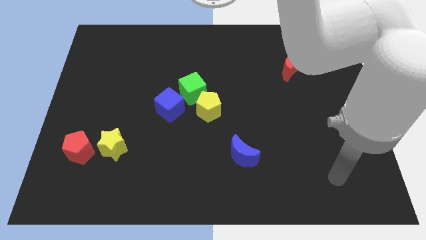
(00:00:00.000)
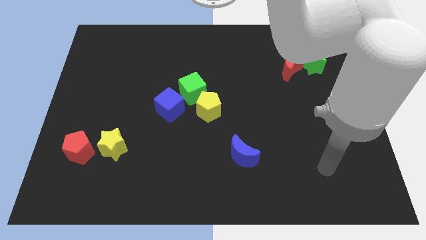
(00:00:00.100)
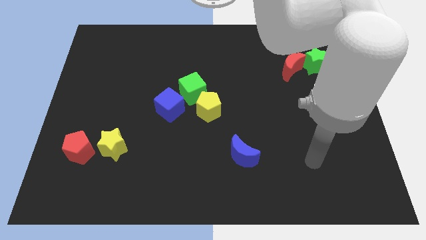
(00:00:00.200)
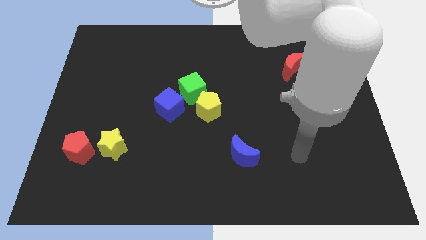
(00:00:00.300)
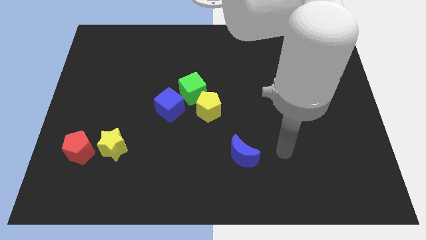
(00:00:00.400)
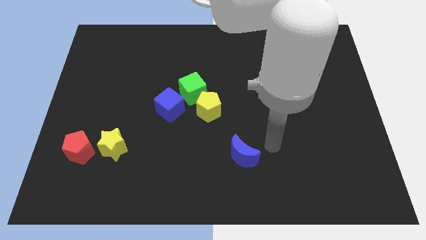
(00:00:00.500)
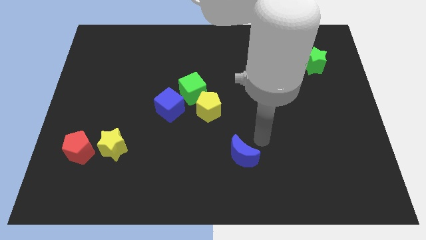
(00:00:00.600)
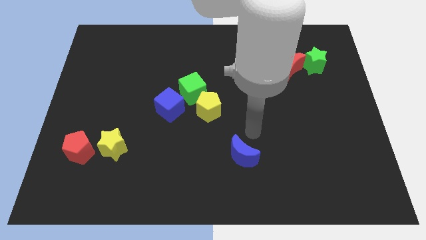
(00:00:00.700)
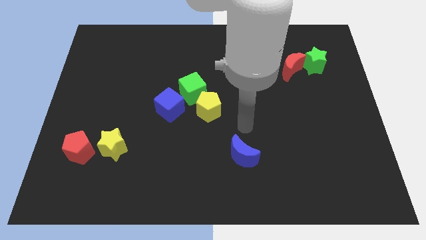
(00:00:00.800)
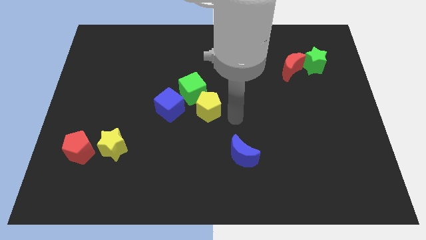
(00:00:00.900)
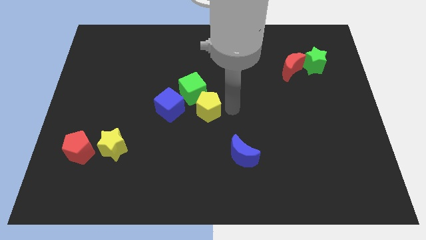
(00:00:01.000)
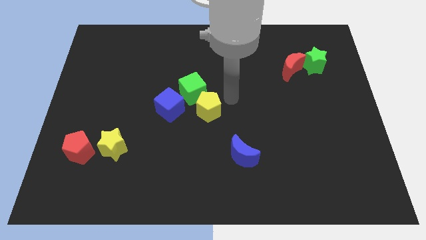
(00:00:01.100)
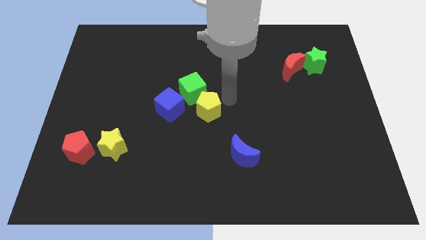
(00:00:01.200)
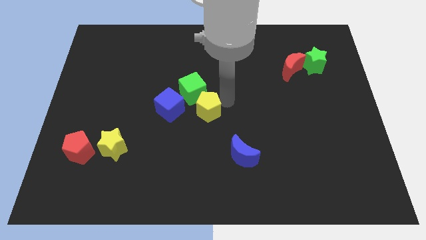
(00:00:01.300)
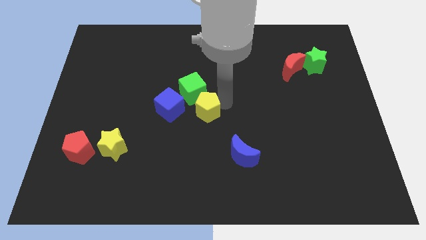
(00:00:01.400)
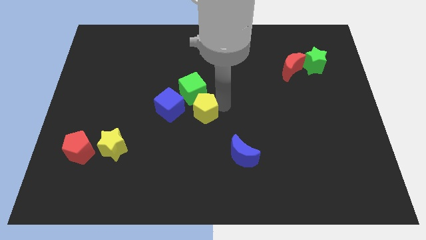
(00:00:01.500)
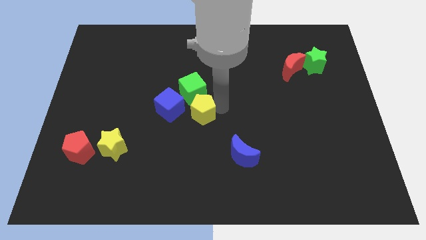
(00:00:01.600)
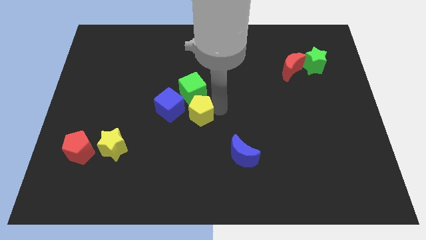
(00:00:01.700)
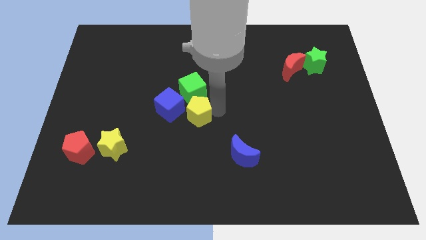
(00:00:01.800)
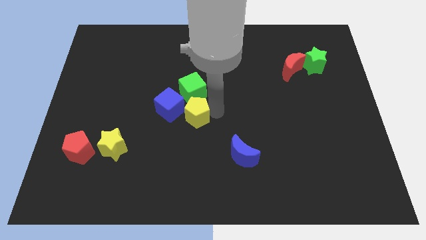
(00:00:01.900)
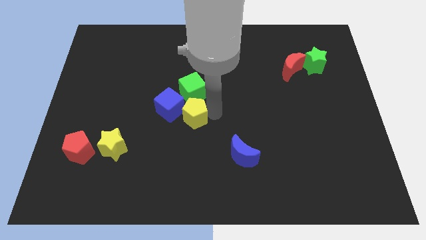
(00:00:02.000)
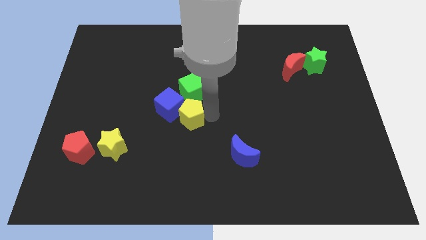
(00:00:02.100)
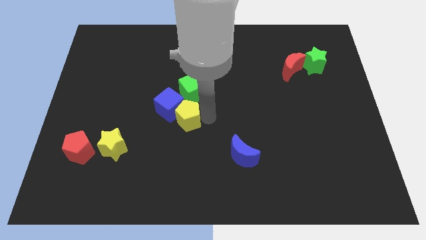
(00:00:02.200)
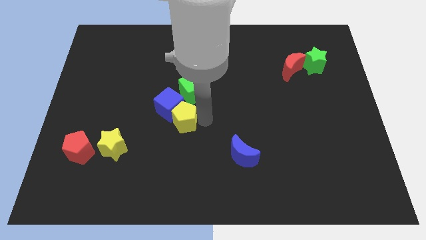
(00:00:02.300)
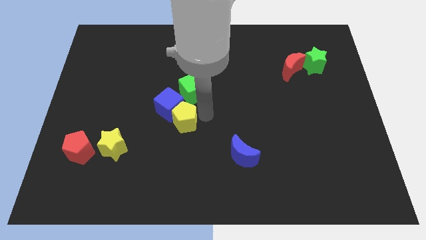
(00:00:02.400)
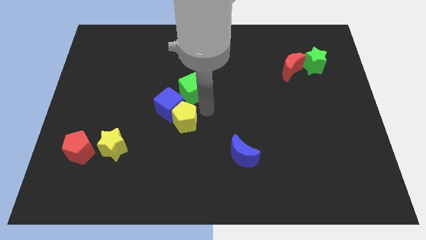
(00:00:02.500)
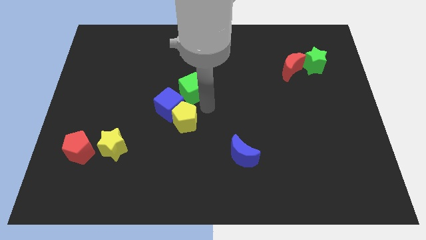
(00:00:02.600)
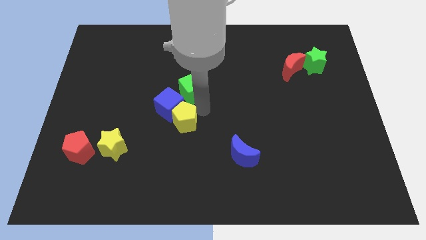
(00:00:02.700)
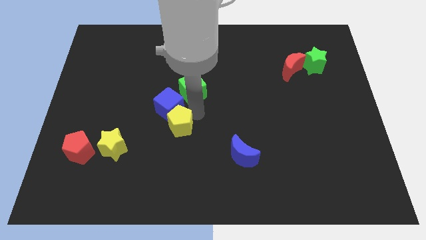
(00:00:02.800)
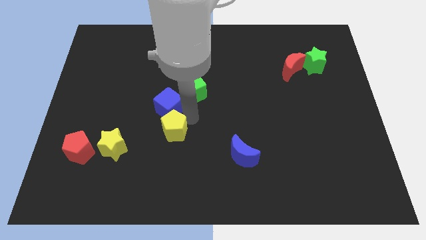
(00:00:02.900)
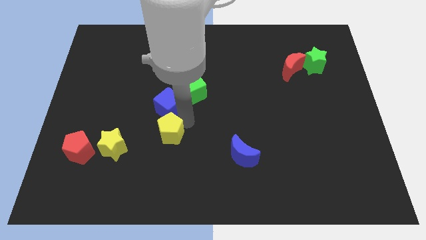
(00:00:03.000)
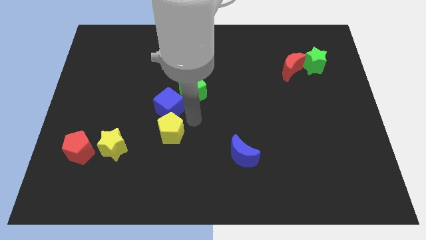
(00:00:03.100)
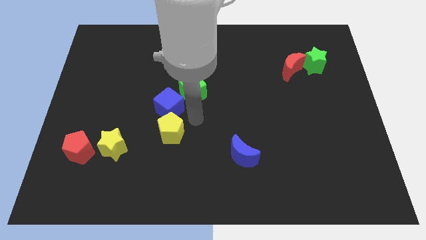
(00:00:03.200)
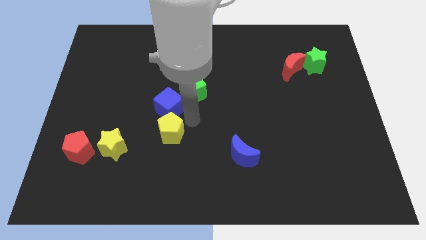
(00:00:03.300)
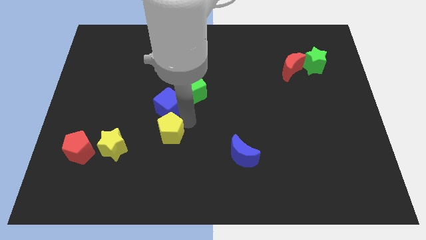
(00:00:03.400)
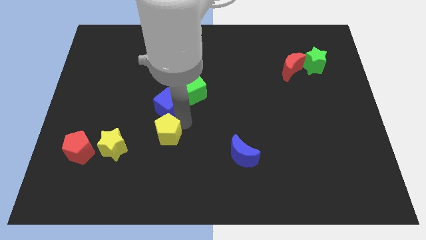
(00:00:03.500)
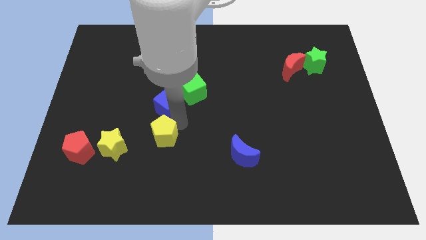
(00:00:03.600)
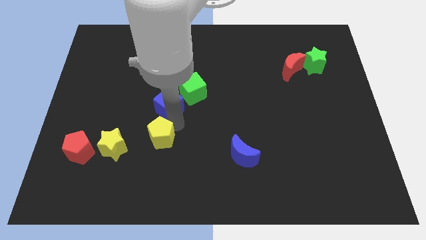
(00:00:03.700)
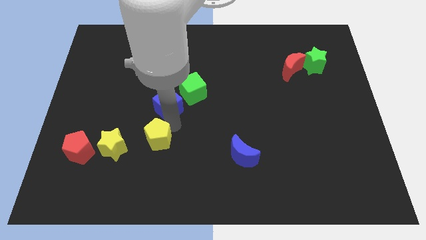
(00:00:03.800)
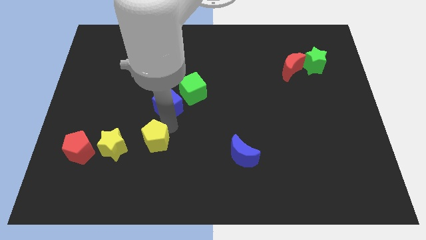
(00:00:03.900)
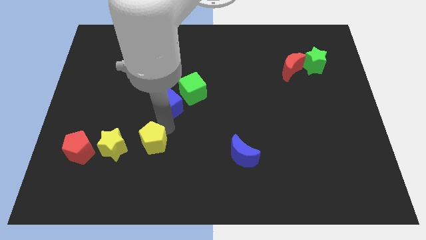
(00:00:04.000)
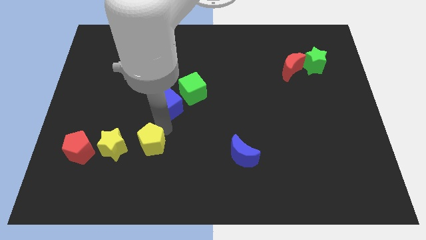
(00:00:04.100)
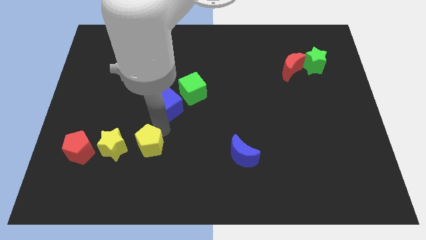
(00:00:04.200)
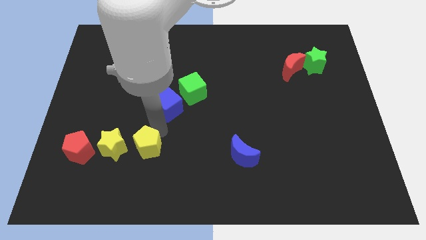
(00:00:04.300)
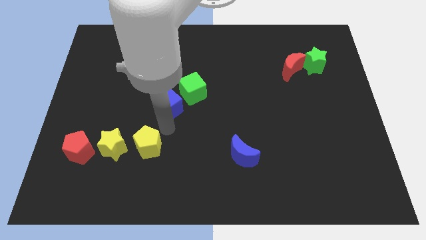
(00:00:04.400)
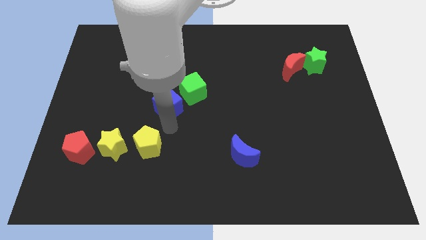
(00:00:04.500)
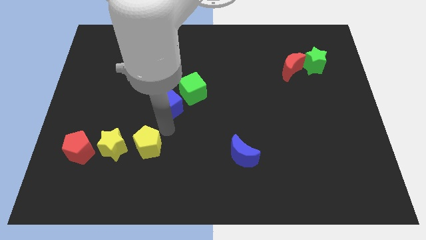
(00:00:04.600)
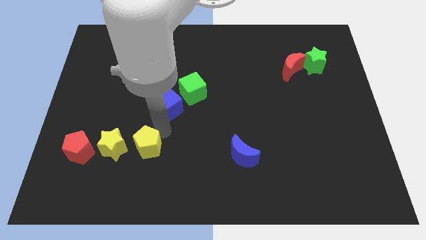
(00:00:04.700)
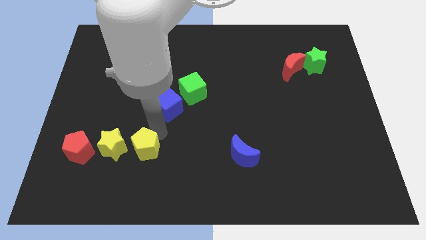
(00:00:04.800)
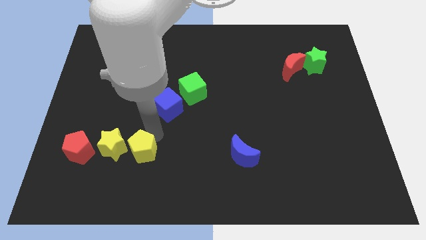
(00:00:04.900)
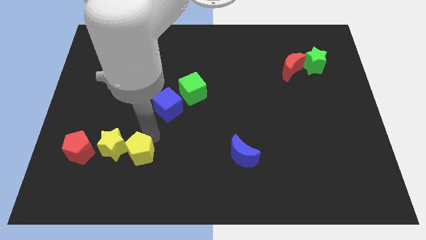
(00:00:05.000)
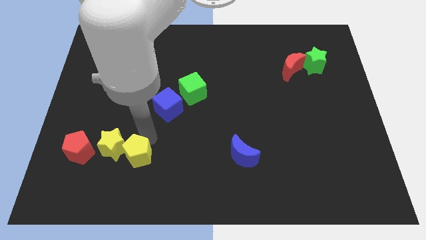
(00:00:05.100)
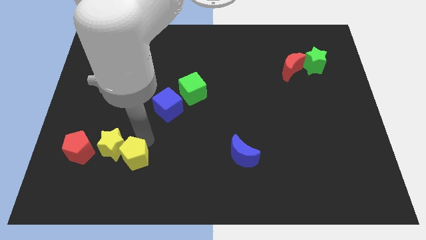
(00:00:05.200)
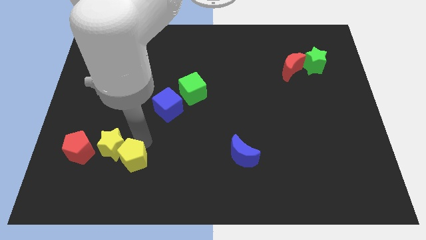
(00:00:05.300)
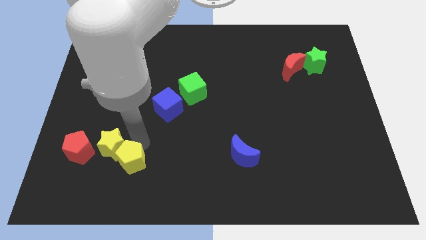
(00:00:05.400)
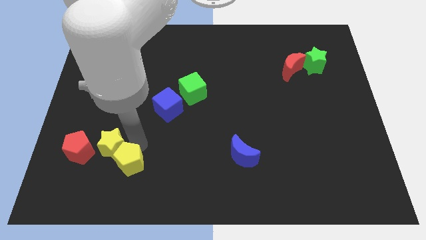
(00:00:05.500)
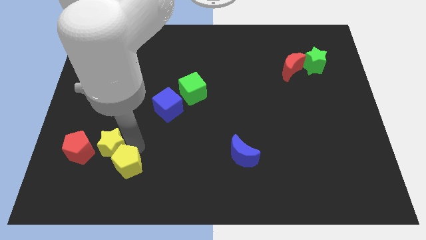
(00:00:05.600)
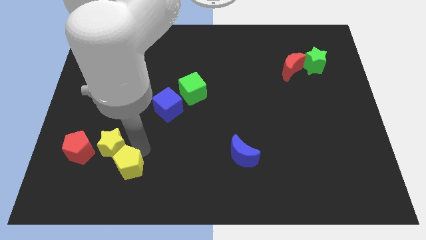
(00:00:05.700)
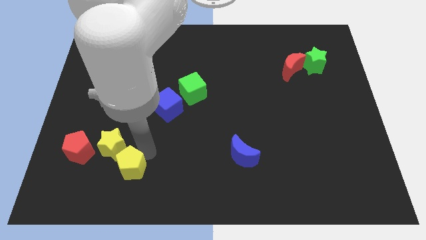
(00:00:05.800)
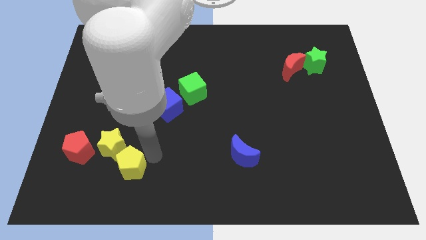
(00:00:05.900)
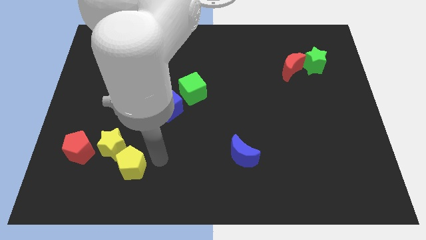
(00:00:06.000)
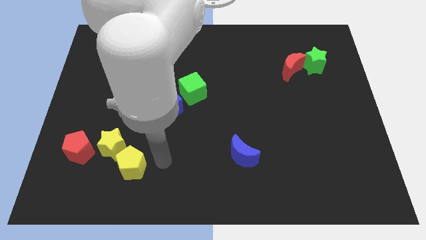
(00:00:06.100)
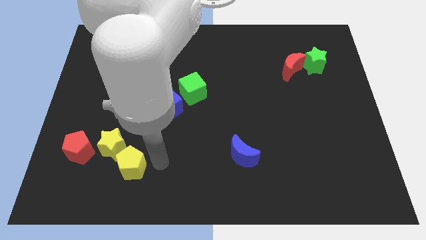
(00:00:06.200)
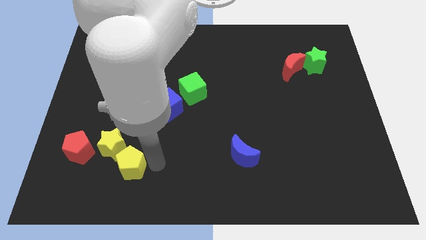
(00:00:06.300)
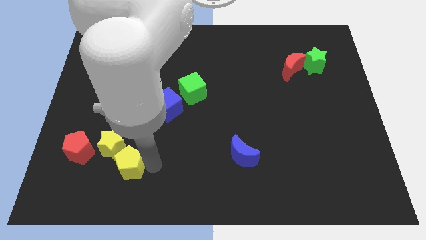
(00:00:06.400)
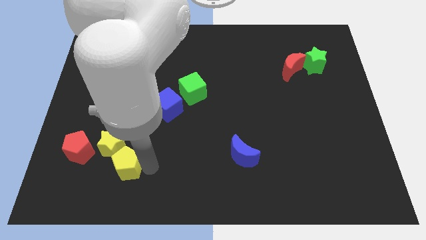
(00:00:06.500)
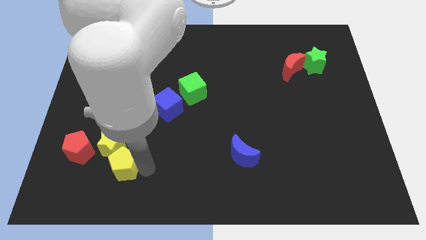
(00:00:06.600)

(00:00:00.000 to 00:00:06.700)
move the yellow pentagon diagonally down and to the right of the red pentagon

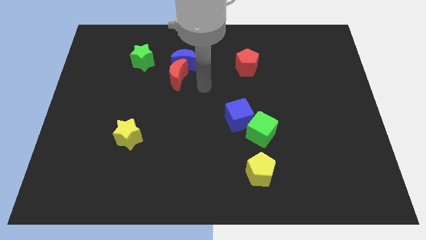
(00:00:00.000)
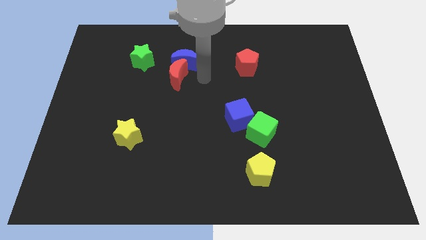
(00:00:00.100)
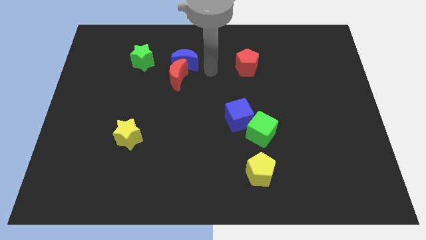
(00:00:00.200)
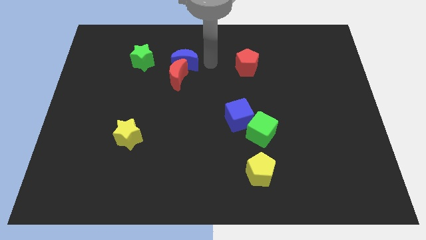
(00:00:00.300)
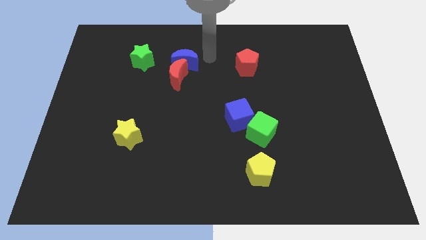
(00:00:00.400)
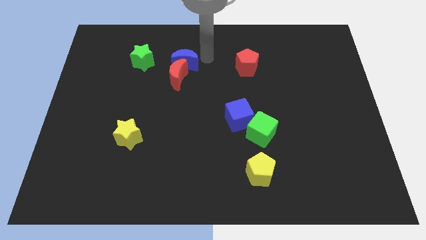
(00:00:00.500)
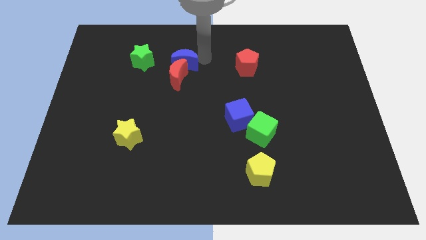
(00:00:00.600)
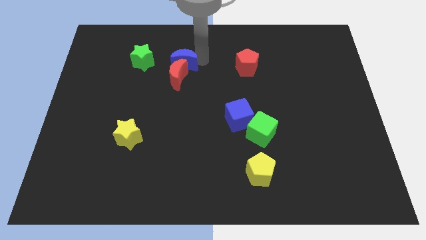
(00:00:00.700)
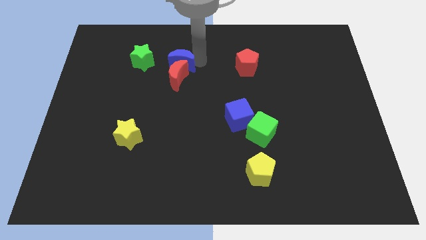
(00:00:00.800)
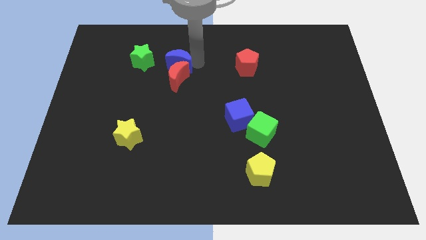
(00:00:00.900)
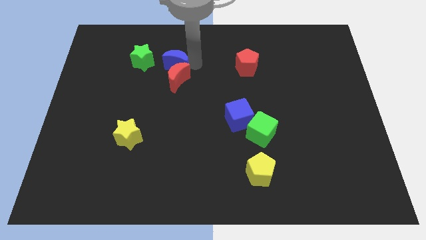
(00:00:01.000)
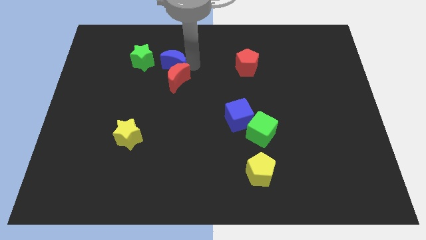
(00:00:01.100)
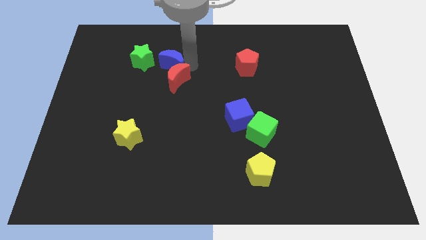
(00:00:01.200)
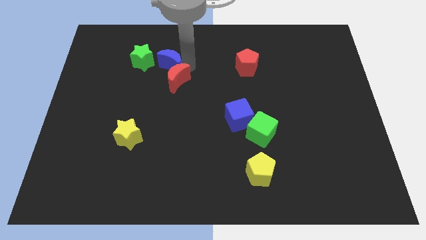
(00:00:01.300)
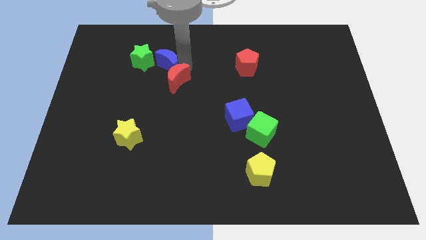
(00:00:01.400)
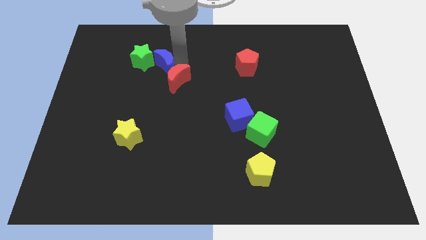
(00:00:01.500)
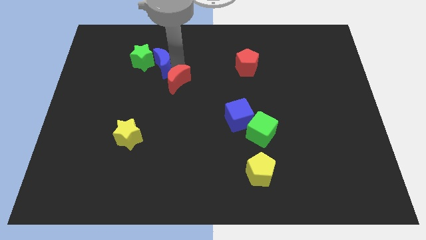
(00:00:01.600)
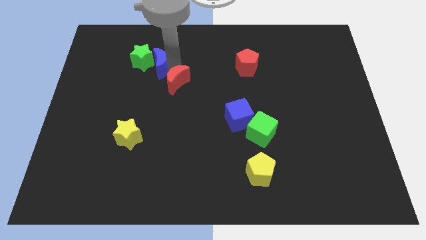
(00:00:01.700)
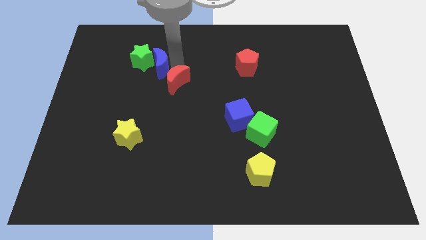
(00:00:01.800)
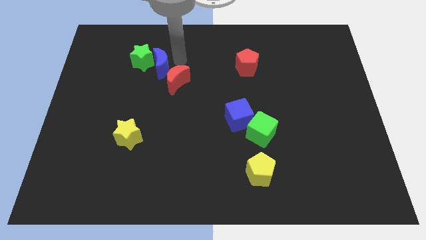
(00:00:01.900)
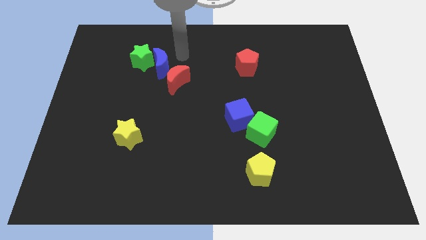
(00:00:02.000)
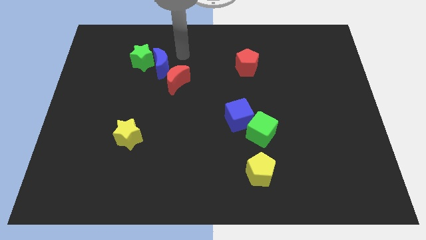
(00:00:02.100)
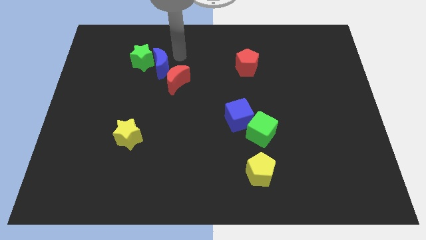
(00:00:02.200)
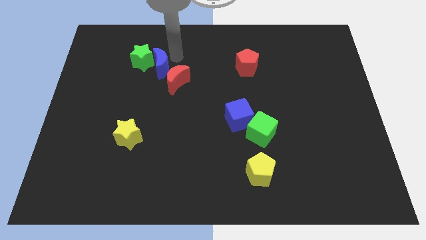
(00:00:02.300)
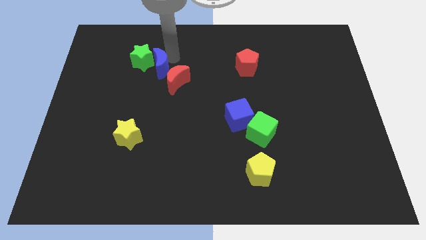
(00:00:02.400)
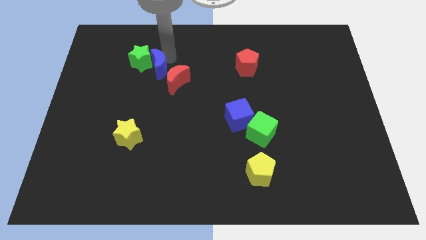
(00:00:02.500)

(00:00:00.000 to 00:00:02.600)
put the blue moon just left of the red moon
